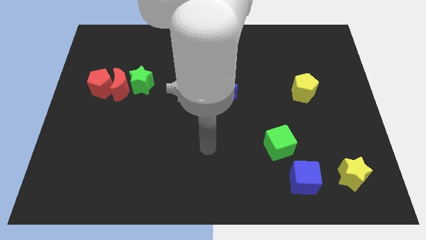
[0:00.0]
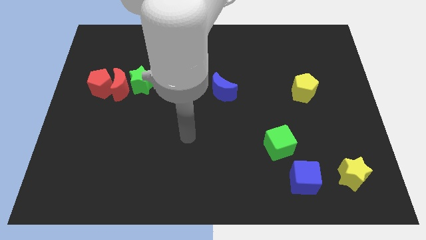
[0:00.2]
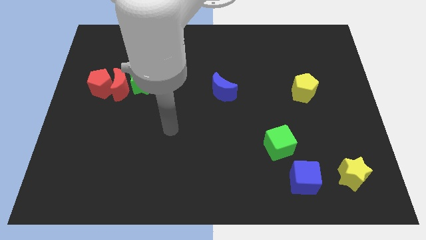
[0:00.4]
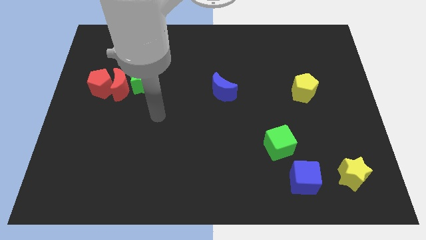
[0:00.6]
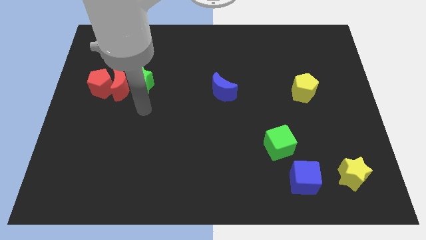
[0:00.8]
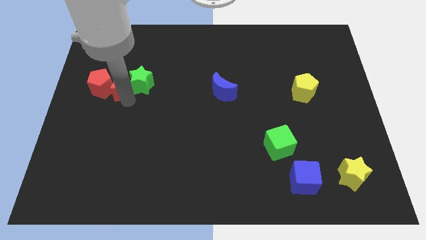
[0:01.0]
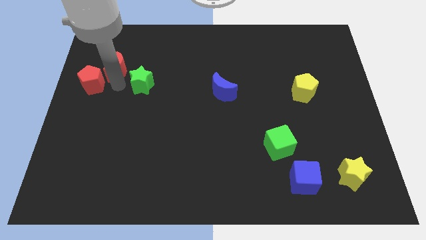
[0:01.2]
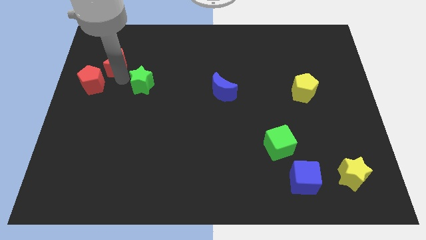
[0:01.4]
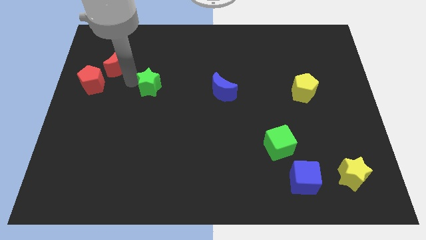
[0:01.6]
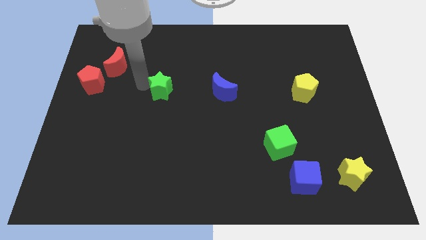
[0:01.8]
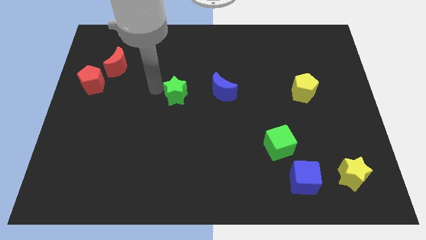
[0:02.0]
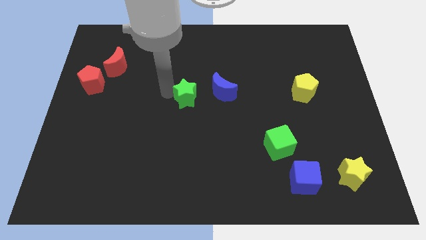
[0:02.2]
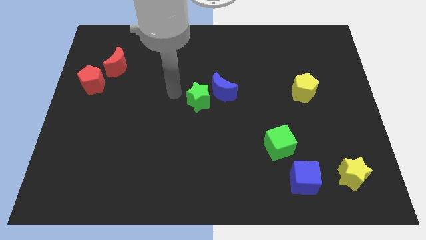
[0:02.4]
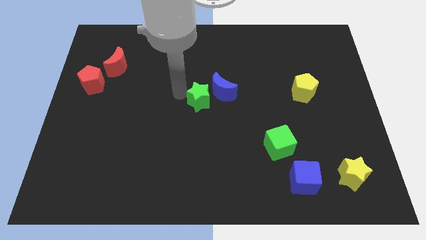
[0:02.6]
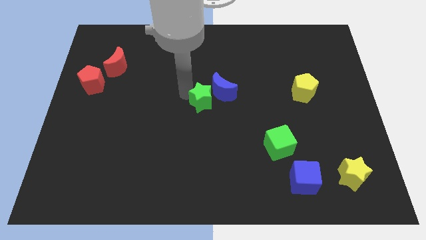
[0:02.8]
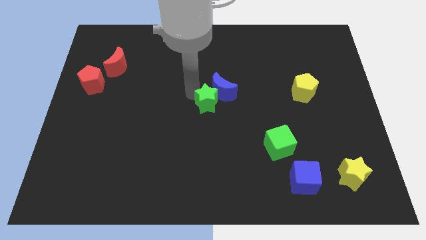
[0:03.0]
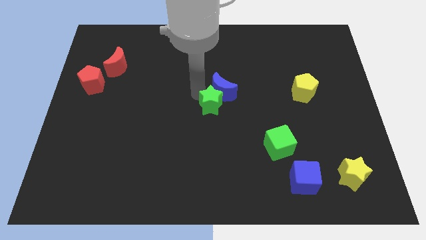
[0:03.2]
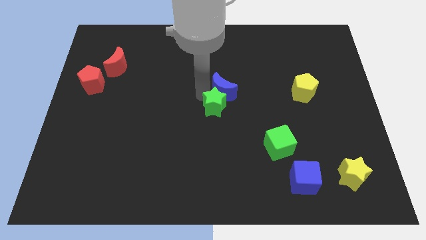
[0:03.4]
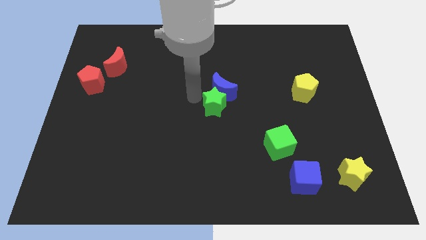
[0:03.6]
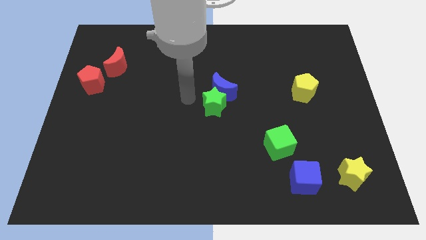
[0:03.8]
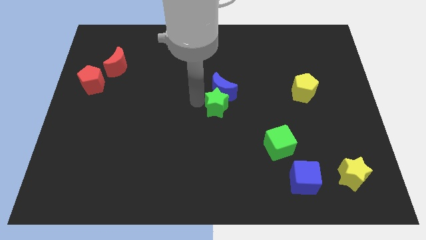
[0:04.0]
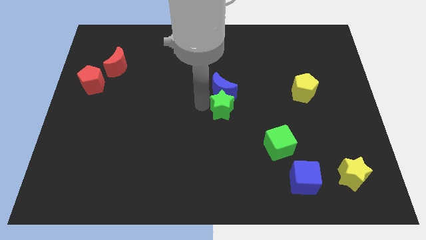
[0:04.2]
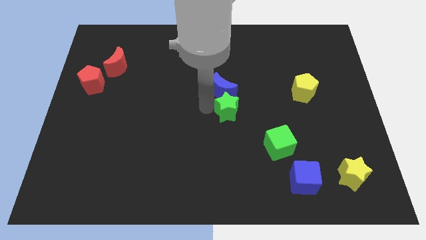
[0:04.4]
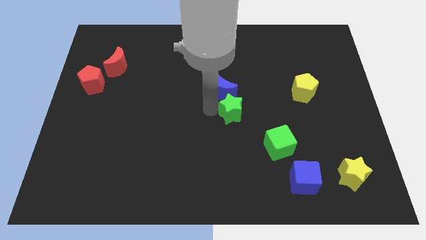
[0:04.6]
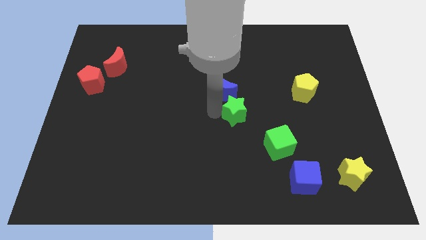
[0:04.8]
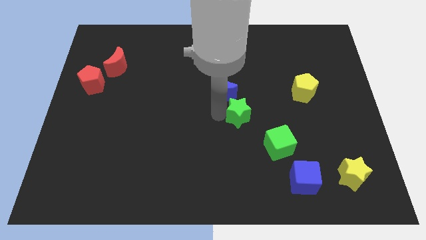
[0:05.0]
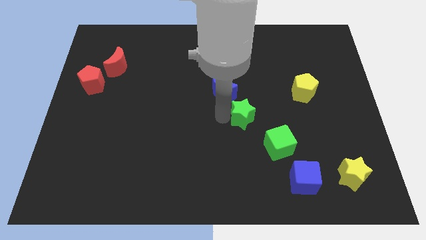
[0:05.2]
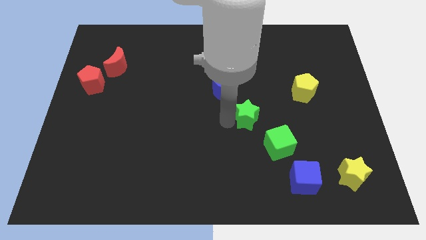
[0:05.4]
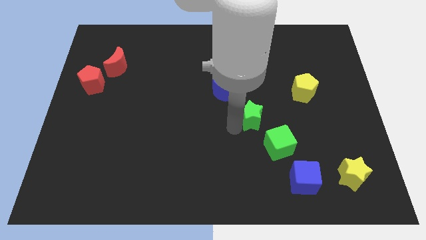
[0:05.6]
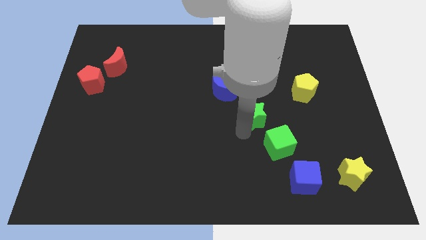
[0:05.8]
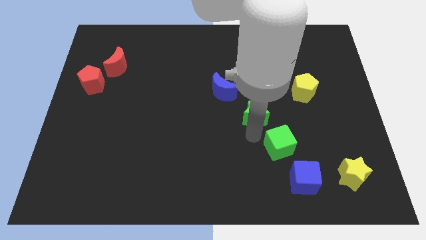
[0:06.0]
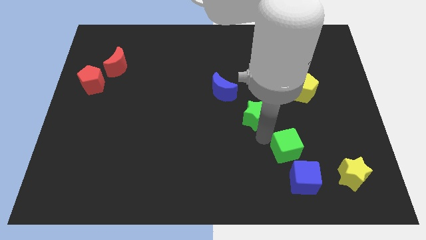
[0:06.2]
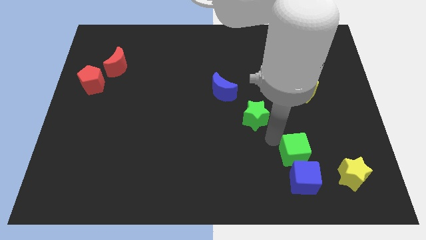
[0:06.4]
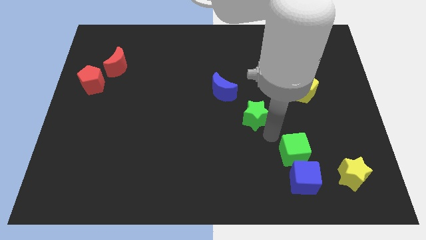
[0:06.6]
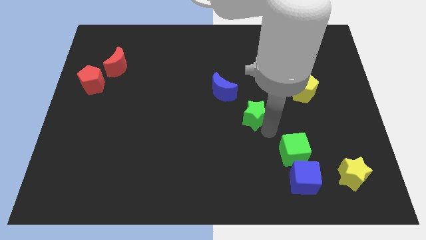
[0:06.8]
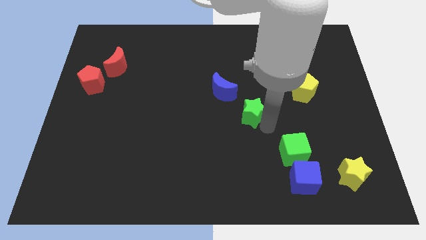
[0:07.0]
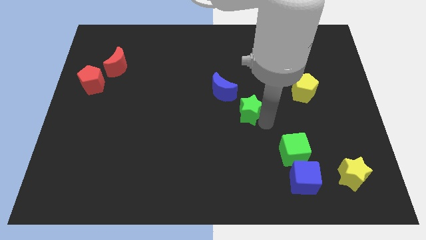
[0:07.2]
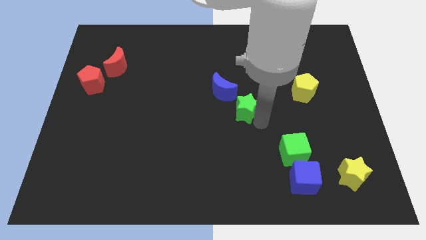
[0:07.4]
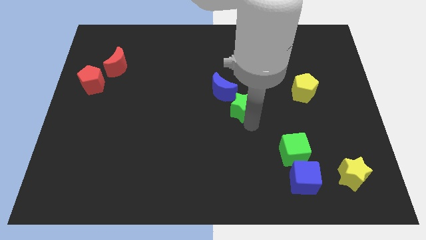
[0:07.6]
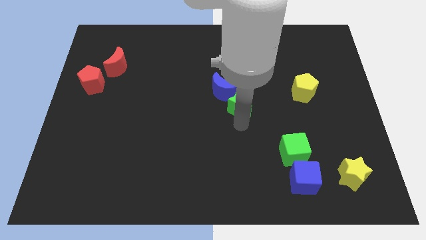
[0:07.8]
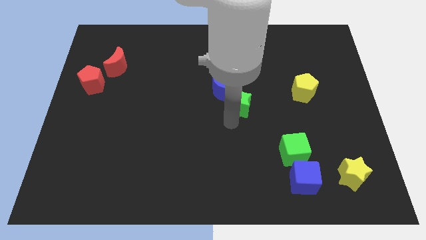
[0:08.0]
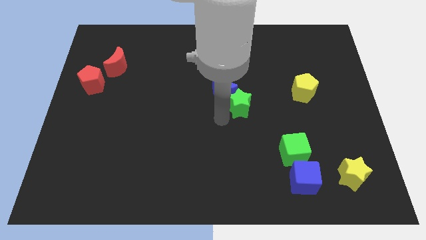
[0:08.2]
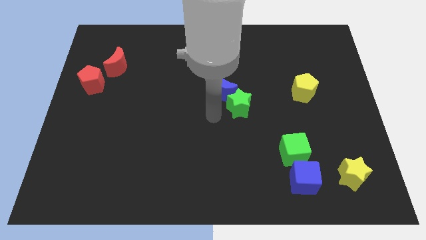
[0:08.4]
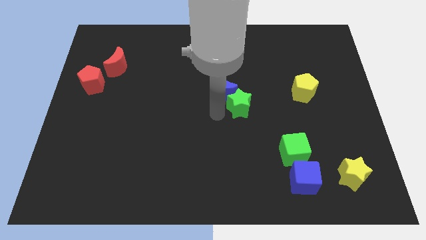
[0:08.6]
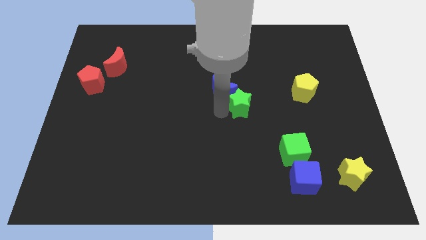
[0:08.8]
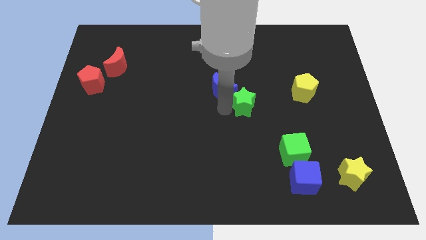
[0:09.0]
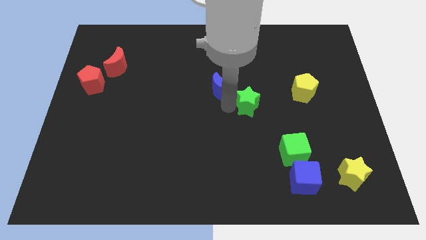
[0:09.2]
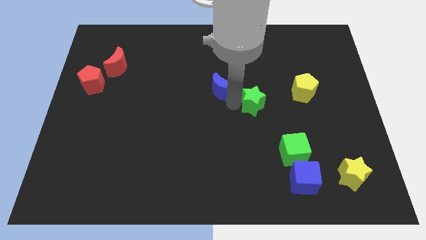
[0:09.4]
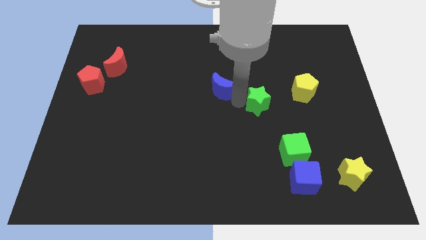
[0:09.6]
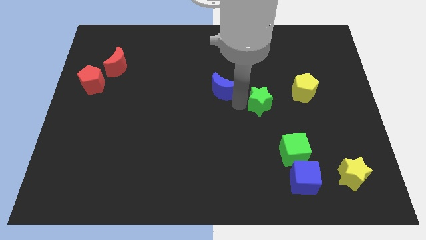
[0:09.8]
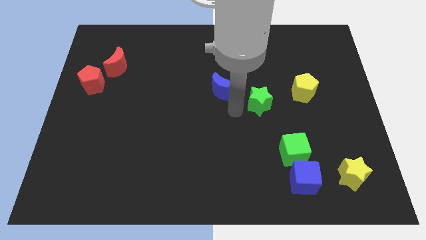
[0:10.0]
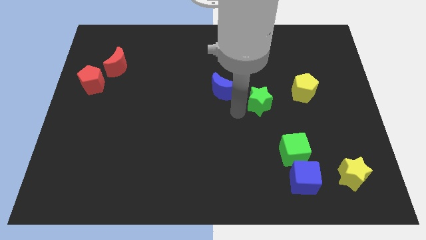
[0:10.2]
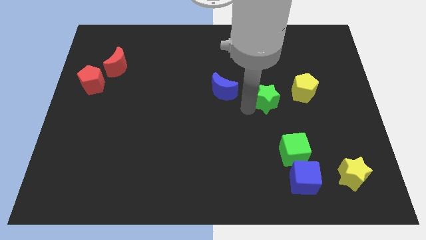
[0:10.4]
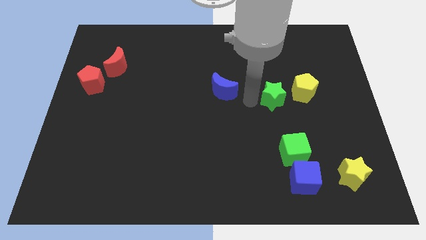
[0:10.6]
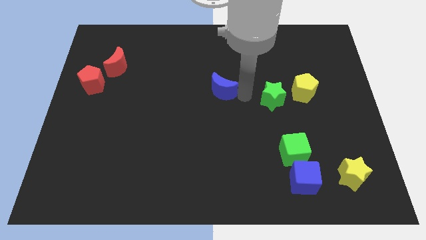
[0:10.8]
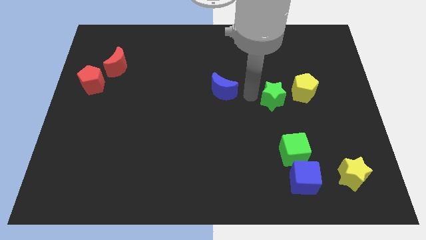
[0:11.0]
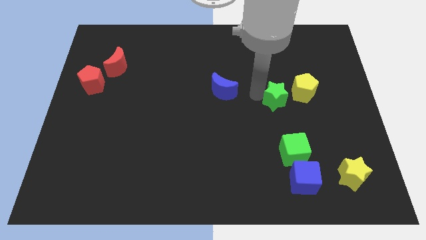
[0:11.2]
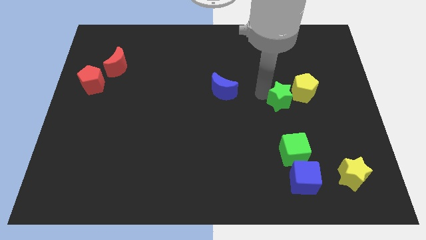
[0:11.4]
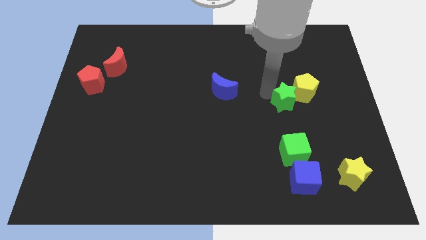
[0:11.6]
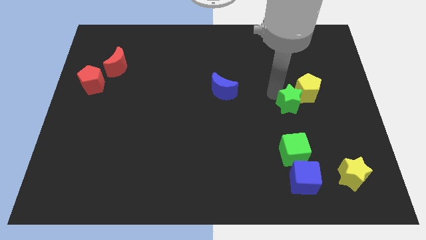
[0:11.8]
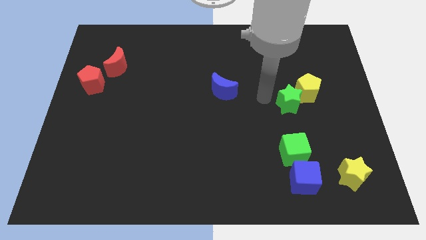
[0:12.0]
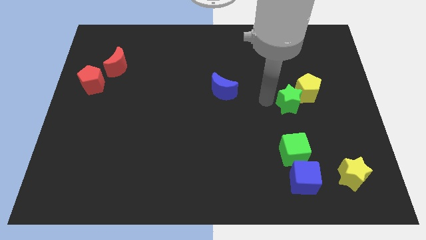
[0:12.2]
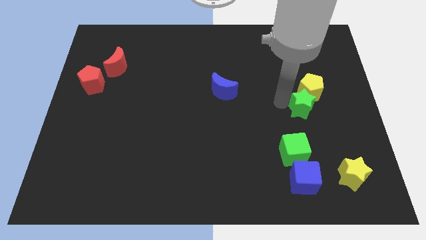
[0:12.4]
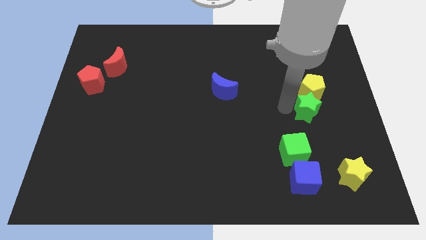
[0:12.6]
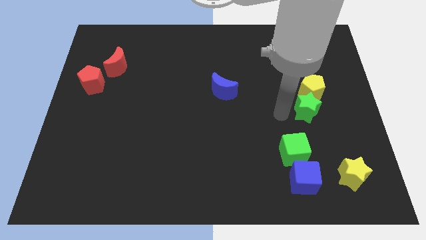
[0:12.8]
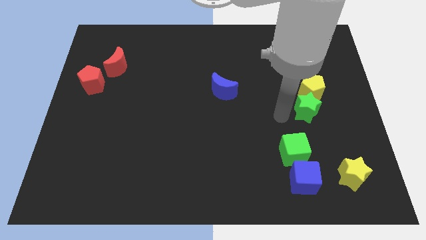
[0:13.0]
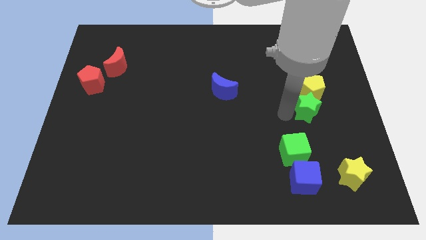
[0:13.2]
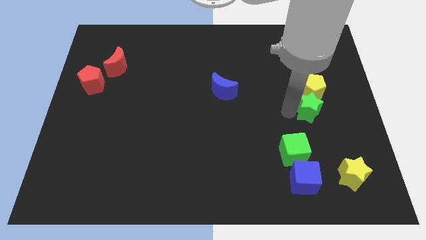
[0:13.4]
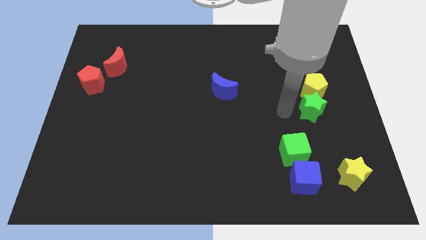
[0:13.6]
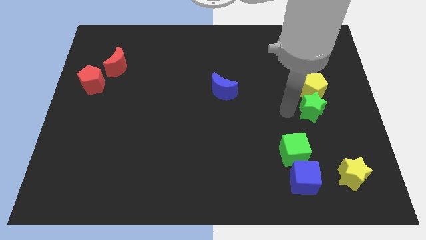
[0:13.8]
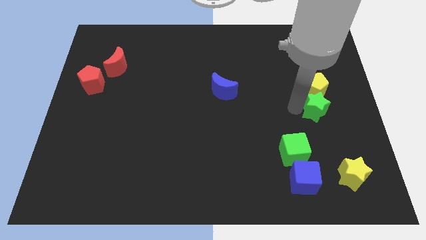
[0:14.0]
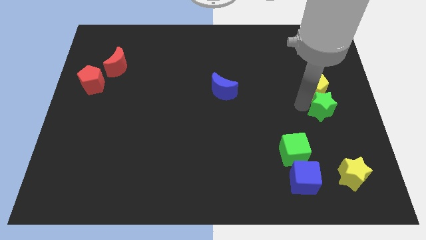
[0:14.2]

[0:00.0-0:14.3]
push the green star to the center right
